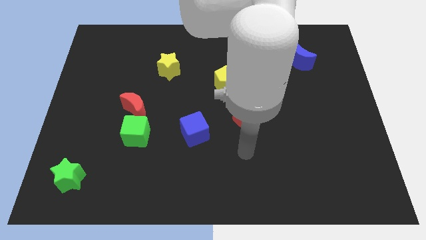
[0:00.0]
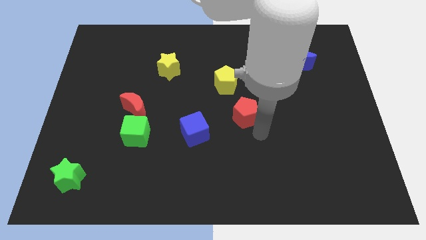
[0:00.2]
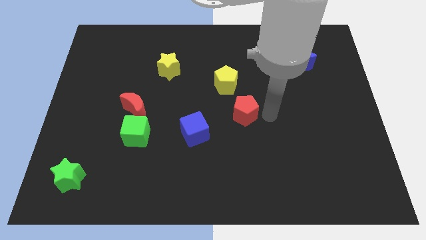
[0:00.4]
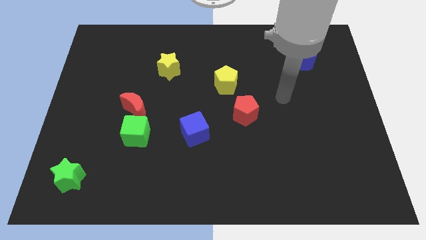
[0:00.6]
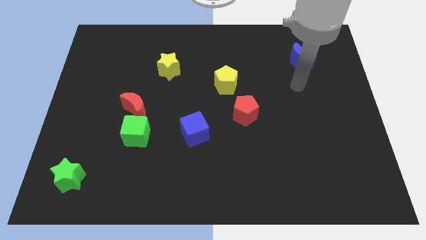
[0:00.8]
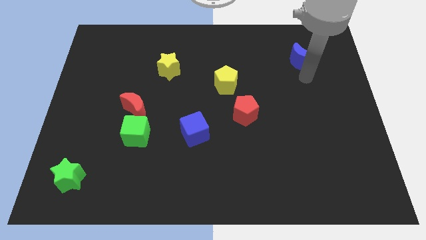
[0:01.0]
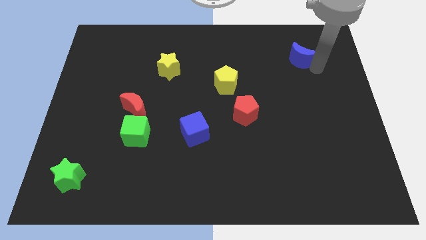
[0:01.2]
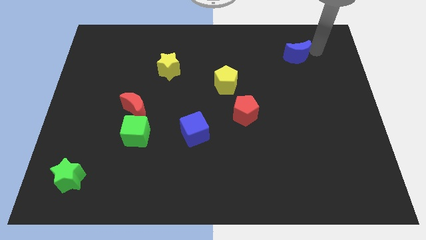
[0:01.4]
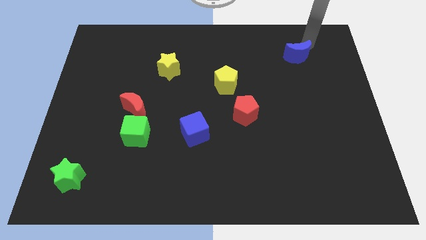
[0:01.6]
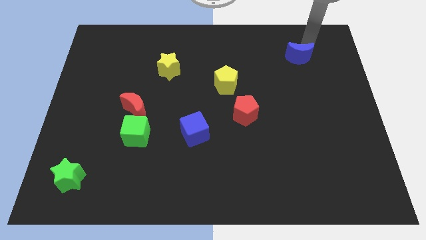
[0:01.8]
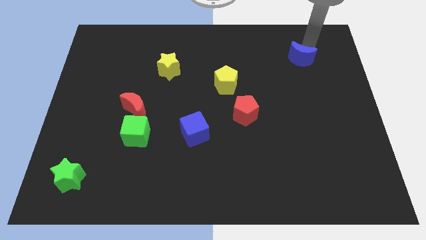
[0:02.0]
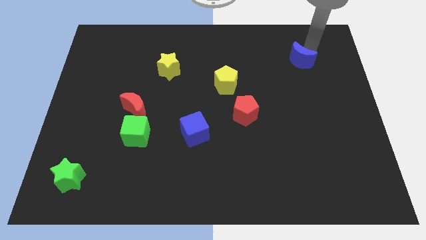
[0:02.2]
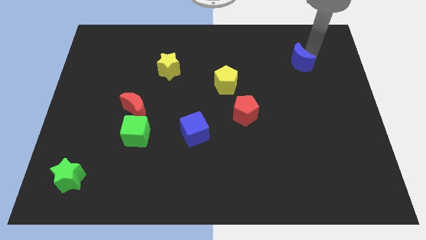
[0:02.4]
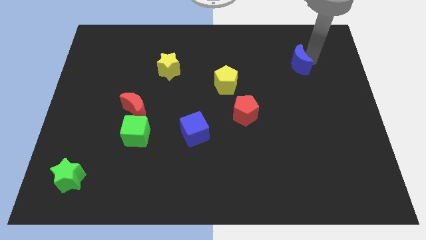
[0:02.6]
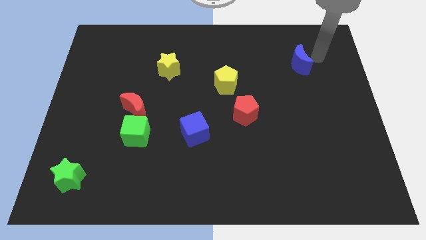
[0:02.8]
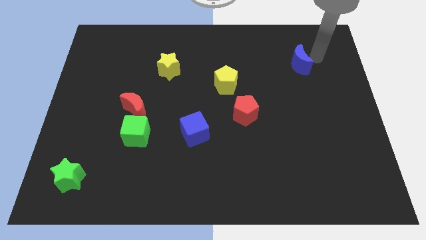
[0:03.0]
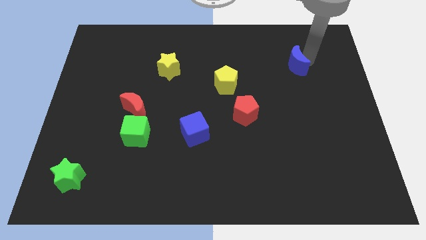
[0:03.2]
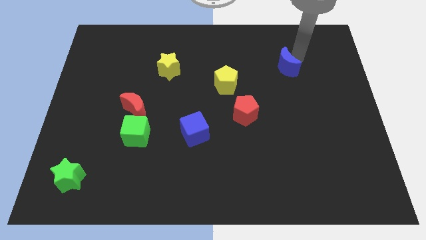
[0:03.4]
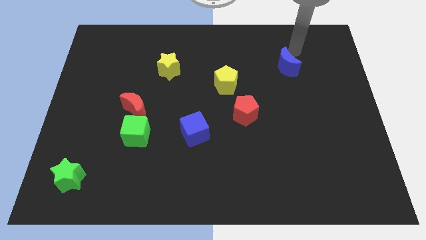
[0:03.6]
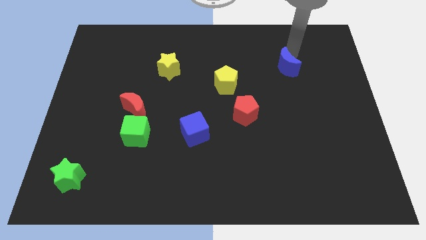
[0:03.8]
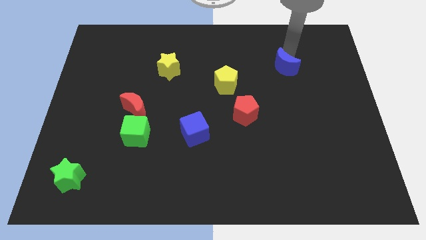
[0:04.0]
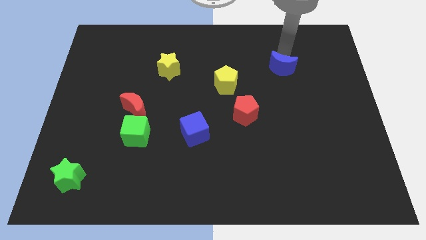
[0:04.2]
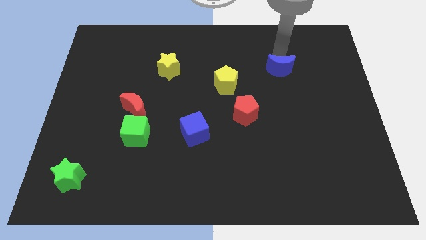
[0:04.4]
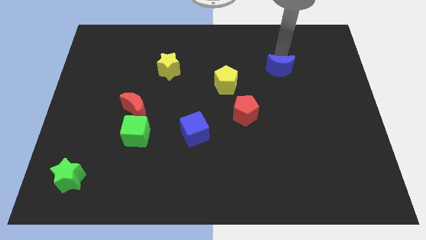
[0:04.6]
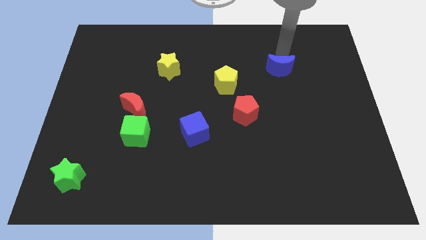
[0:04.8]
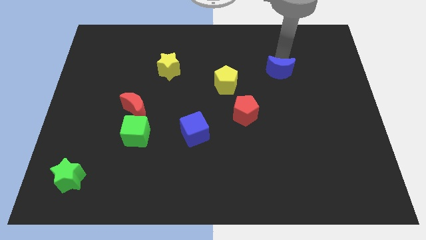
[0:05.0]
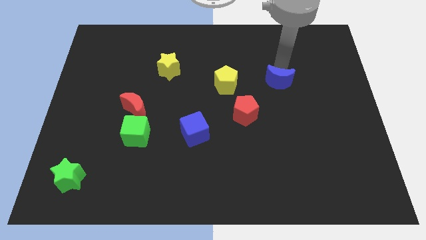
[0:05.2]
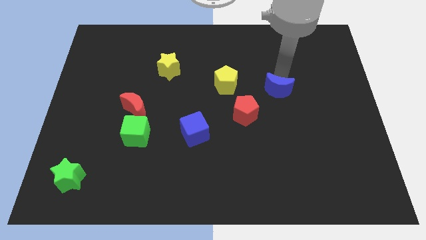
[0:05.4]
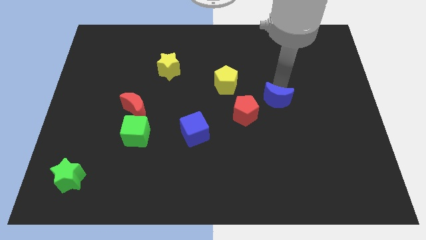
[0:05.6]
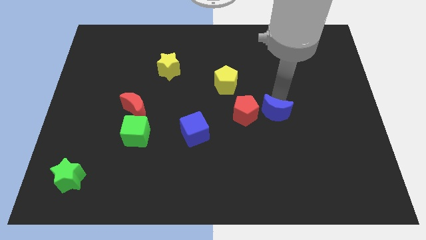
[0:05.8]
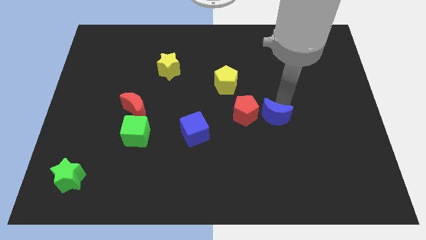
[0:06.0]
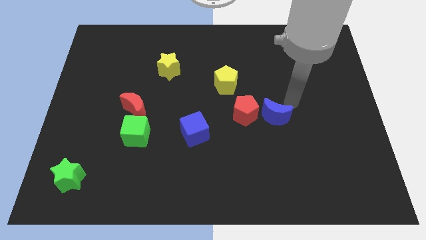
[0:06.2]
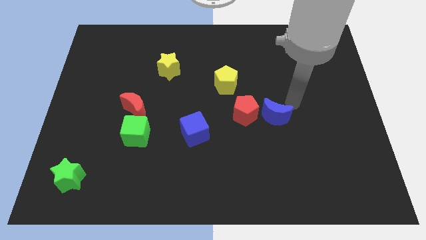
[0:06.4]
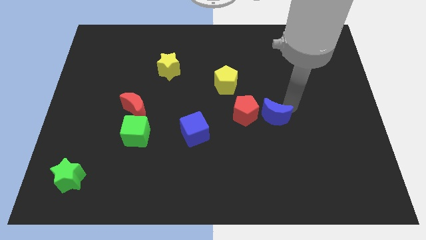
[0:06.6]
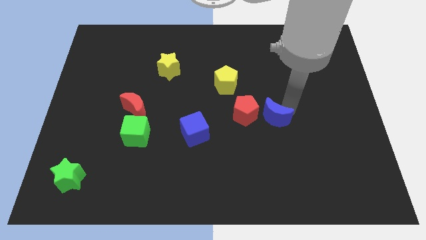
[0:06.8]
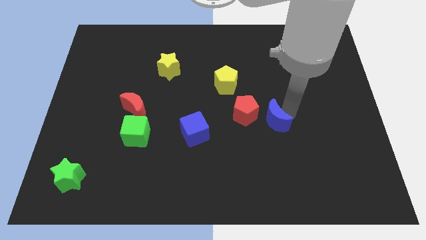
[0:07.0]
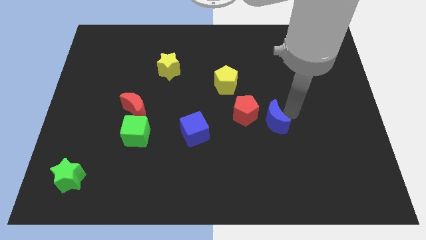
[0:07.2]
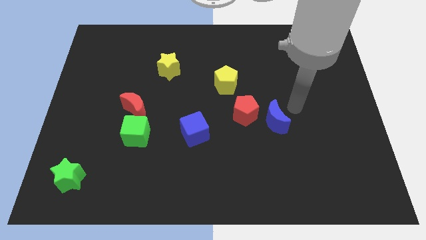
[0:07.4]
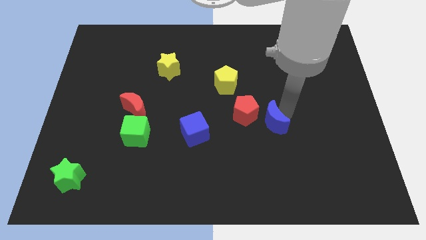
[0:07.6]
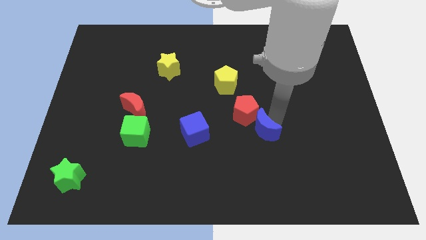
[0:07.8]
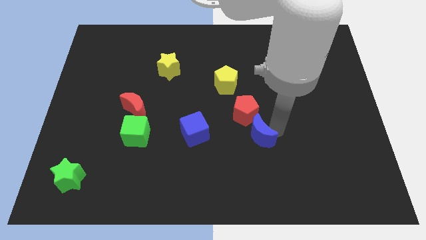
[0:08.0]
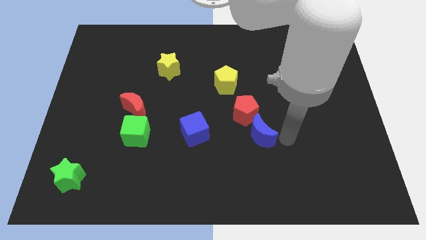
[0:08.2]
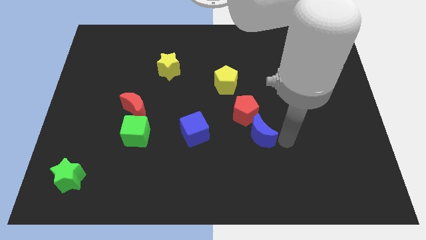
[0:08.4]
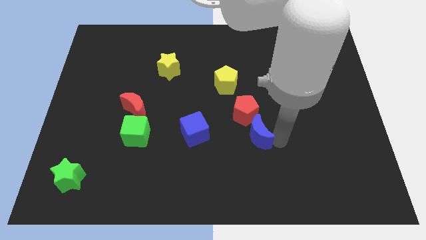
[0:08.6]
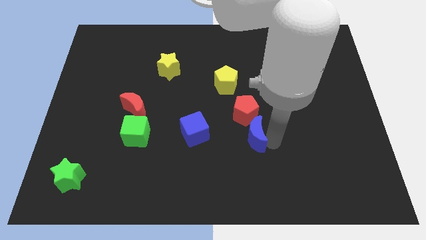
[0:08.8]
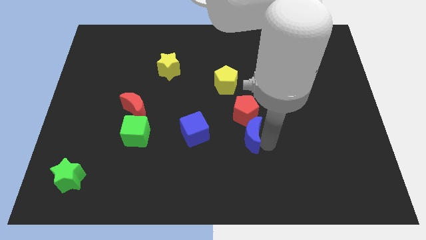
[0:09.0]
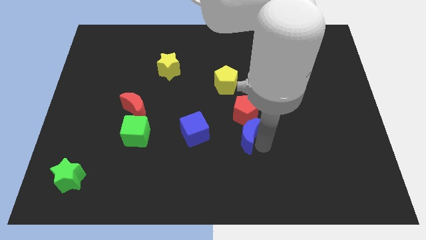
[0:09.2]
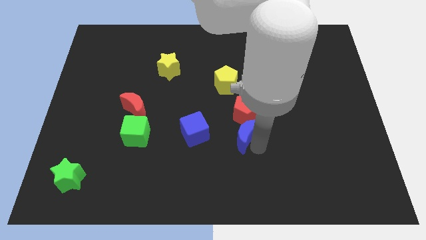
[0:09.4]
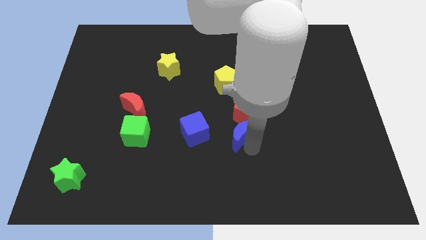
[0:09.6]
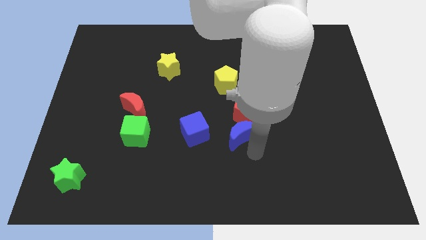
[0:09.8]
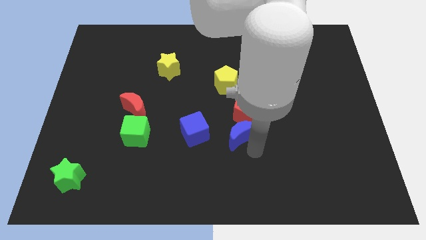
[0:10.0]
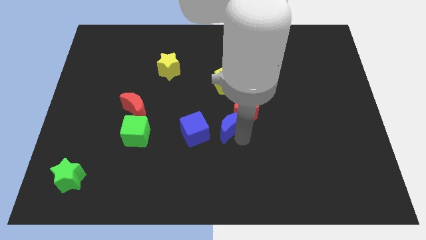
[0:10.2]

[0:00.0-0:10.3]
slide the blue moon to the top right side of the blue cube

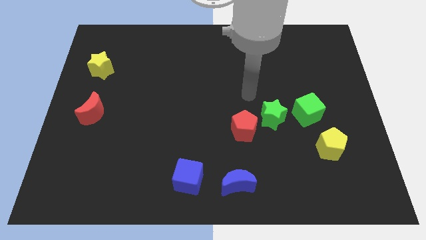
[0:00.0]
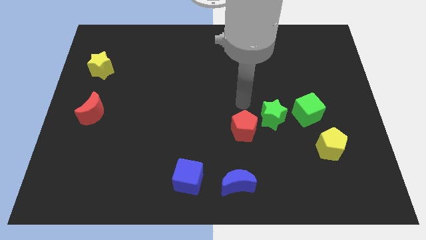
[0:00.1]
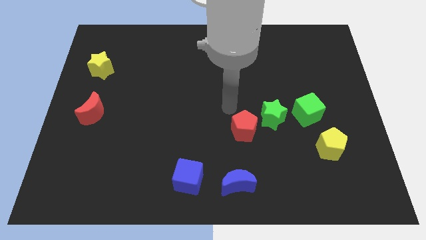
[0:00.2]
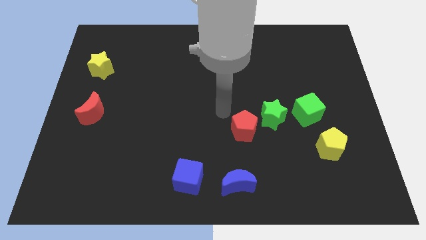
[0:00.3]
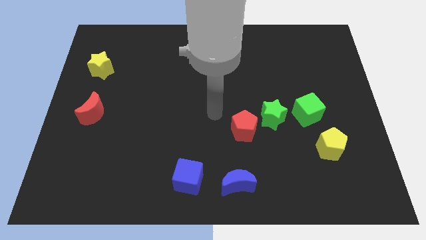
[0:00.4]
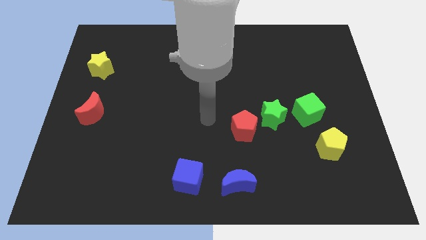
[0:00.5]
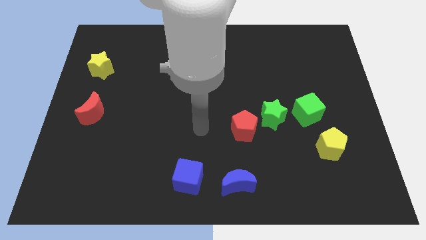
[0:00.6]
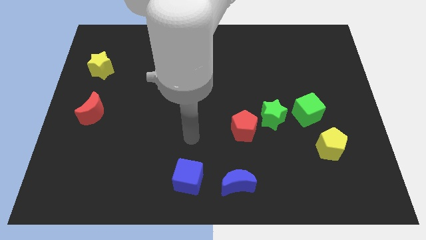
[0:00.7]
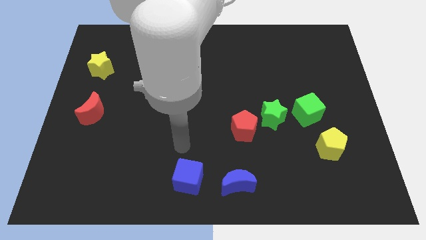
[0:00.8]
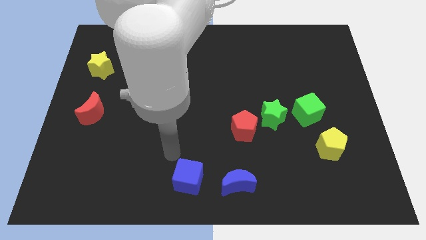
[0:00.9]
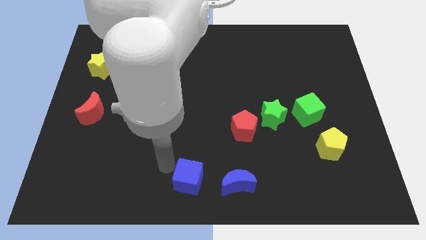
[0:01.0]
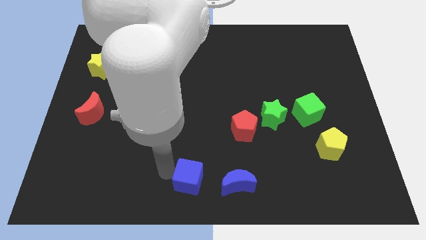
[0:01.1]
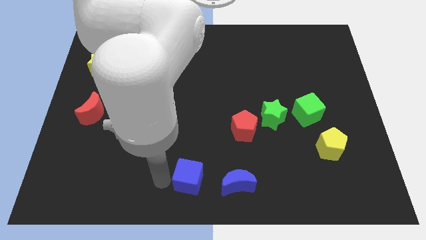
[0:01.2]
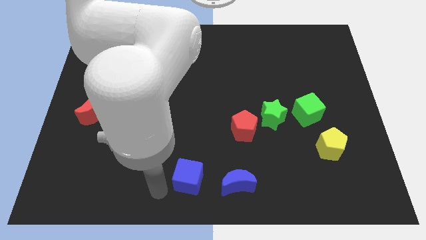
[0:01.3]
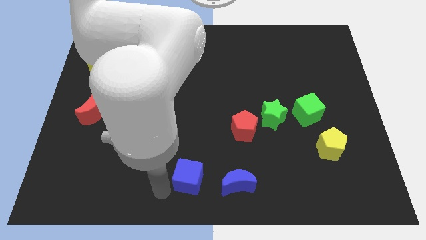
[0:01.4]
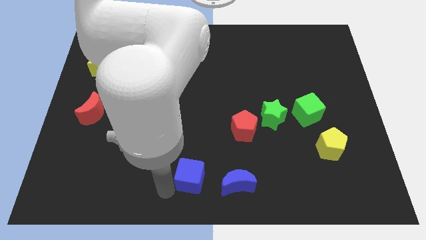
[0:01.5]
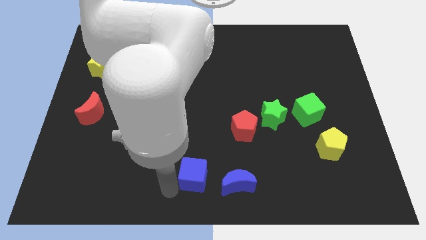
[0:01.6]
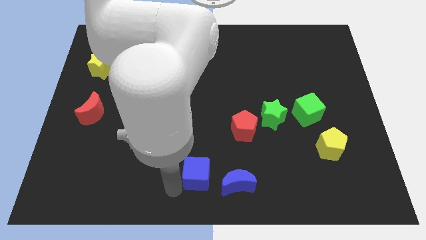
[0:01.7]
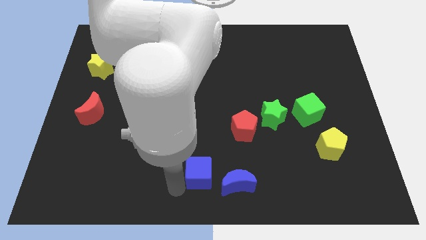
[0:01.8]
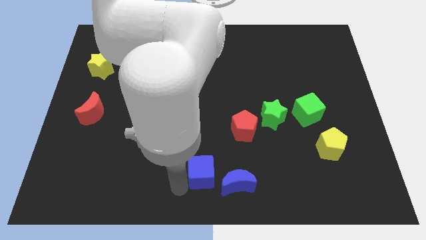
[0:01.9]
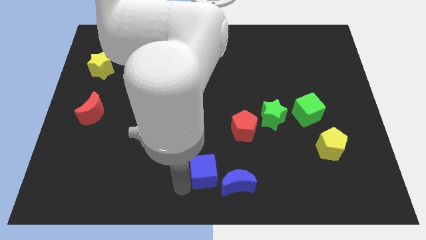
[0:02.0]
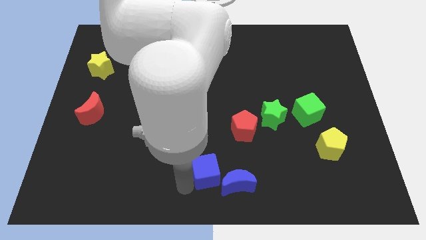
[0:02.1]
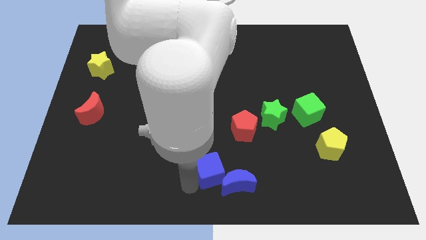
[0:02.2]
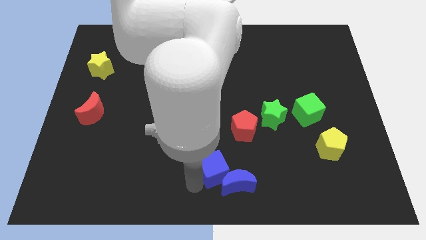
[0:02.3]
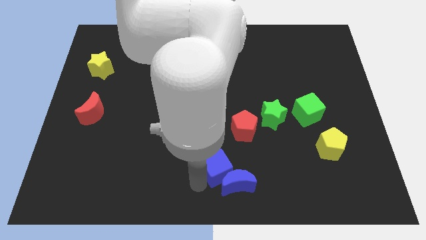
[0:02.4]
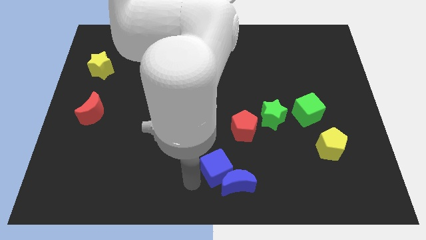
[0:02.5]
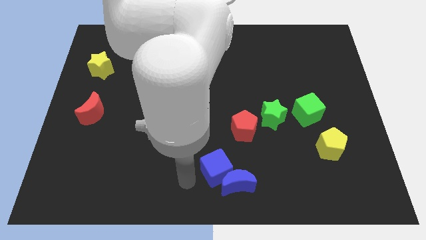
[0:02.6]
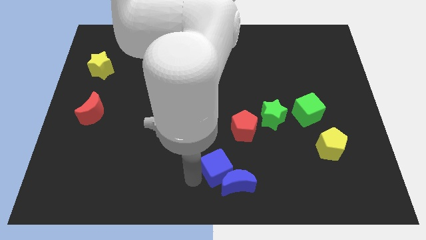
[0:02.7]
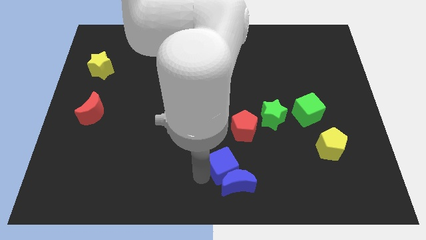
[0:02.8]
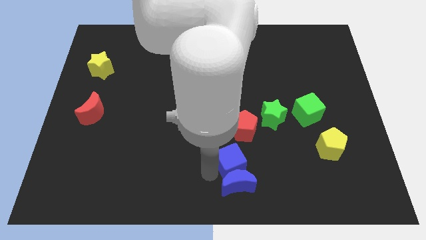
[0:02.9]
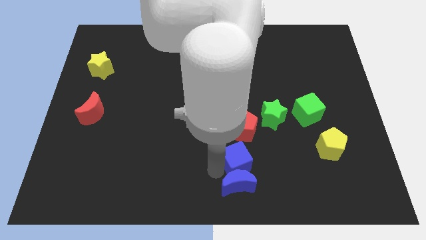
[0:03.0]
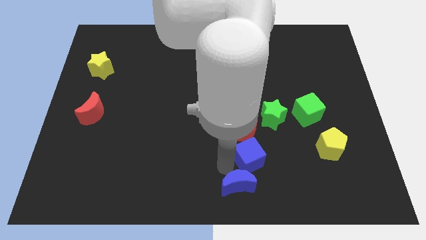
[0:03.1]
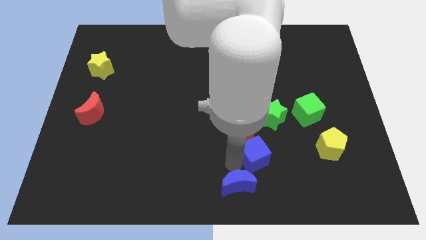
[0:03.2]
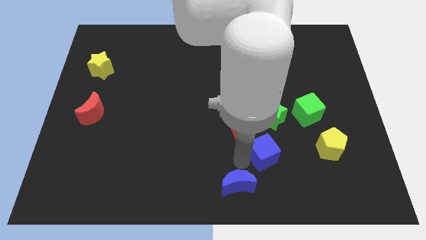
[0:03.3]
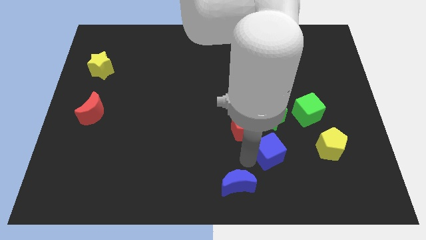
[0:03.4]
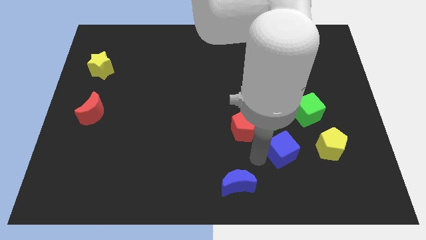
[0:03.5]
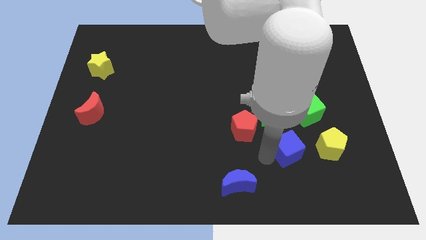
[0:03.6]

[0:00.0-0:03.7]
push the blue cube to the bottom right side of the green star
